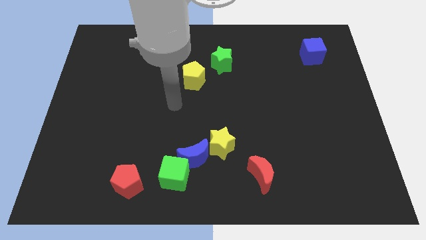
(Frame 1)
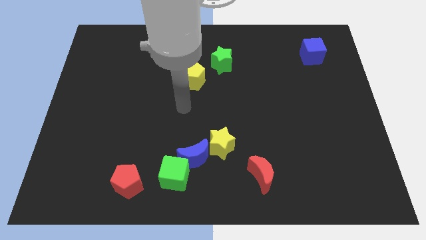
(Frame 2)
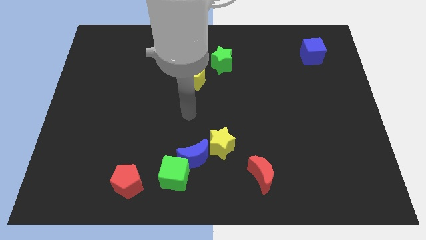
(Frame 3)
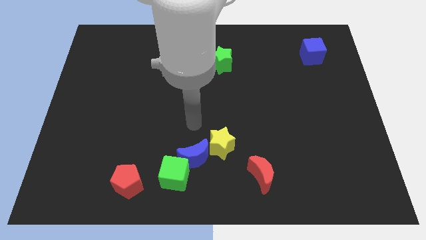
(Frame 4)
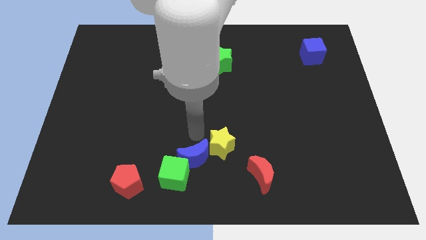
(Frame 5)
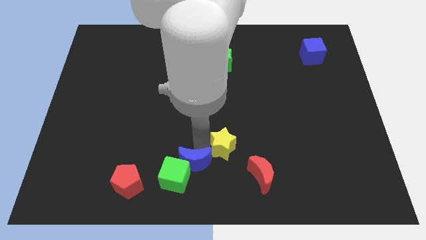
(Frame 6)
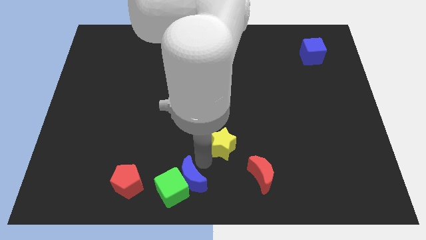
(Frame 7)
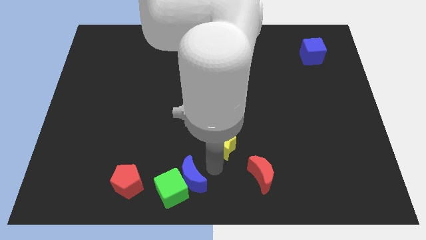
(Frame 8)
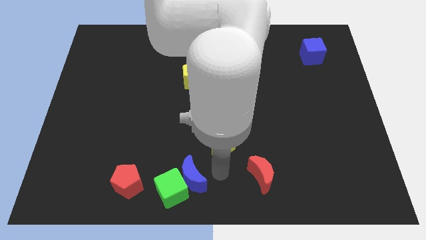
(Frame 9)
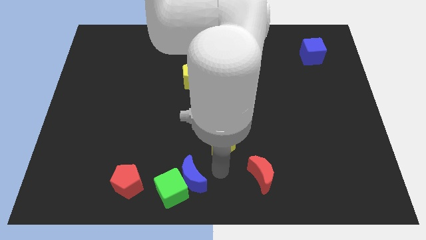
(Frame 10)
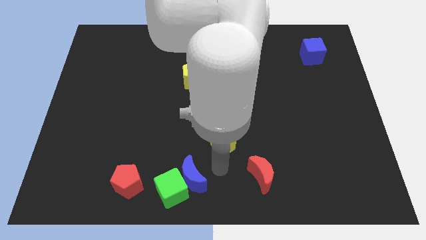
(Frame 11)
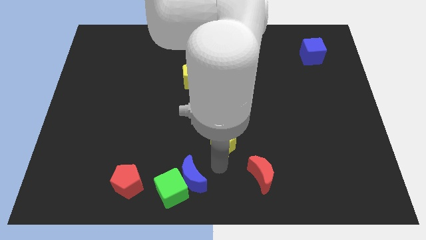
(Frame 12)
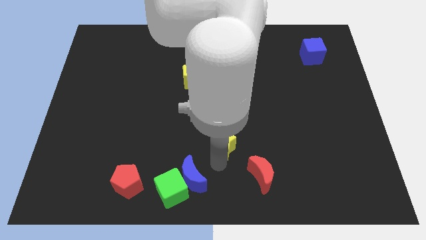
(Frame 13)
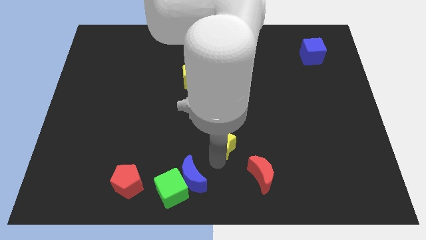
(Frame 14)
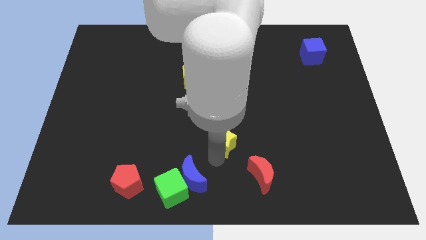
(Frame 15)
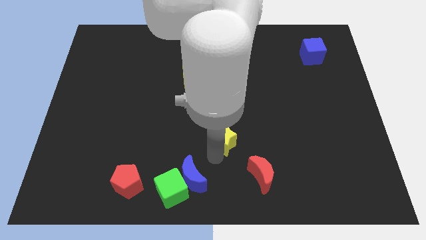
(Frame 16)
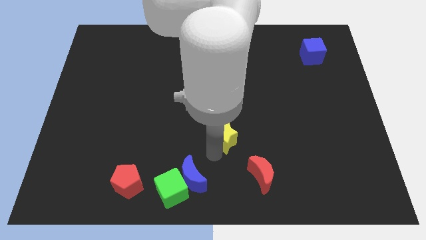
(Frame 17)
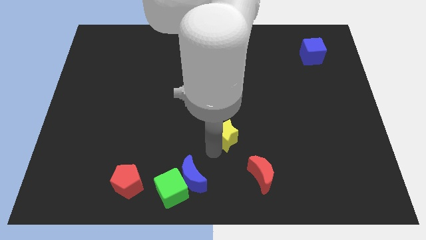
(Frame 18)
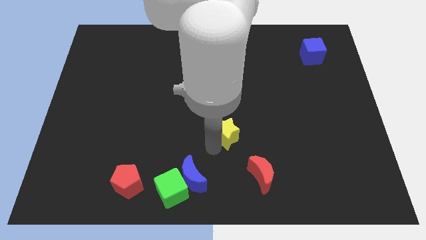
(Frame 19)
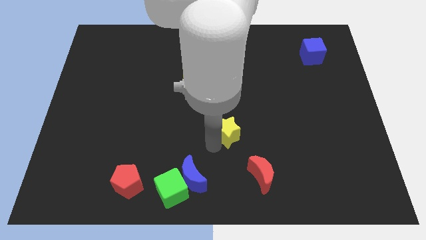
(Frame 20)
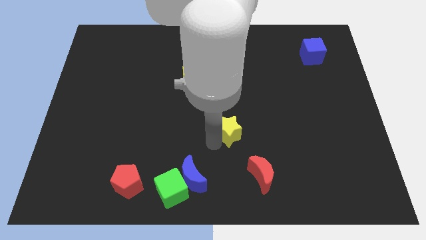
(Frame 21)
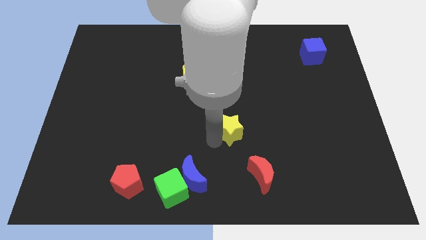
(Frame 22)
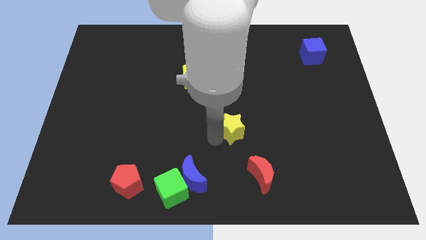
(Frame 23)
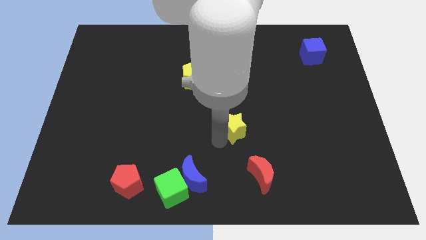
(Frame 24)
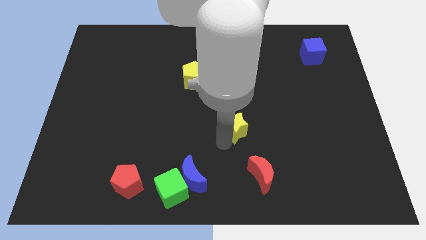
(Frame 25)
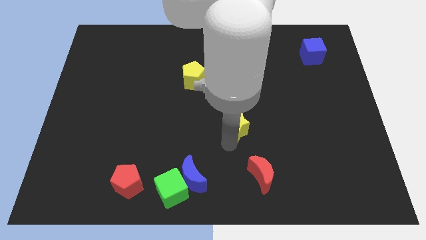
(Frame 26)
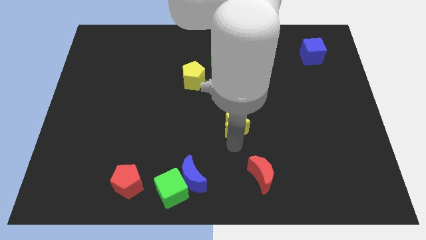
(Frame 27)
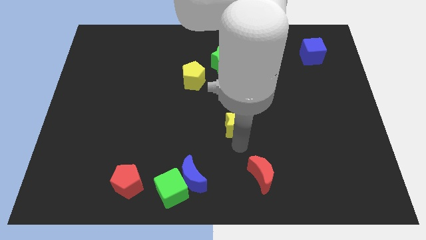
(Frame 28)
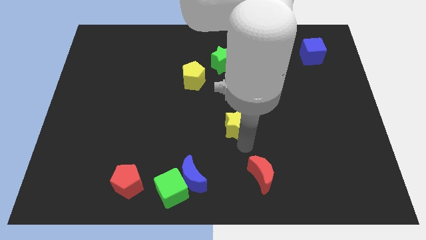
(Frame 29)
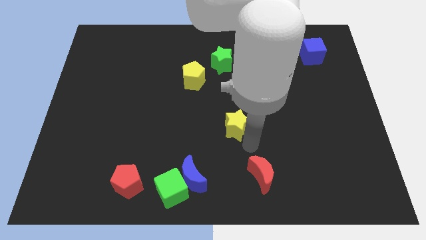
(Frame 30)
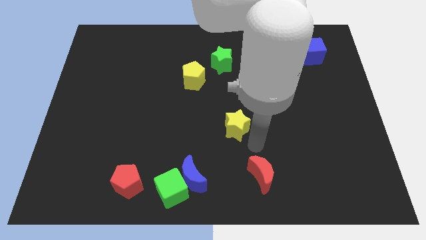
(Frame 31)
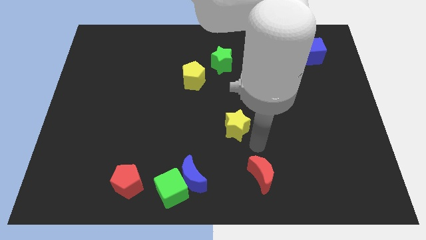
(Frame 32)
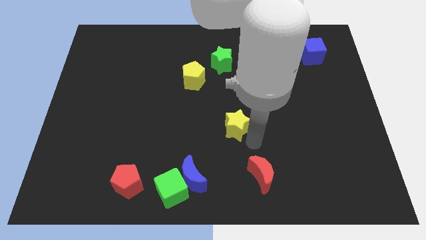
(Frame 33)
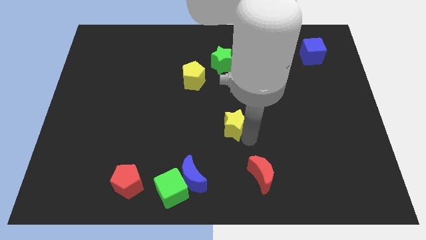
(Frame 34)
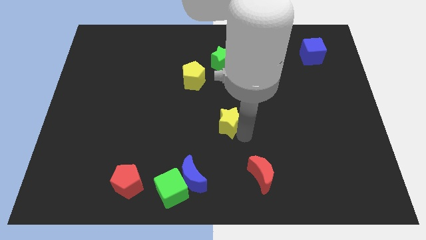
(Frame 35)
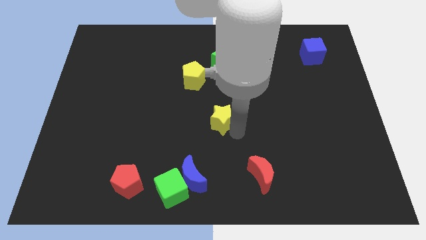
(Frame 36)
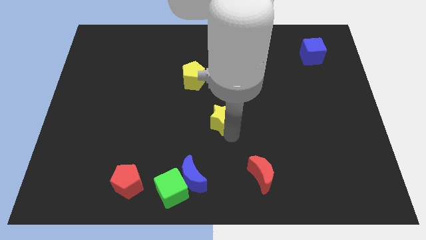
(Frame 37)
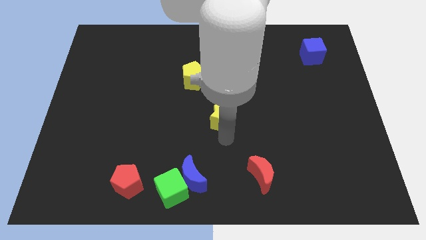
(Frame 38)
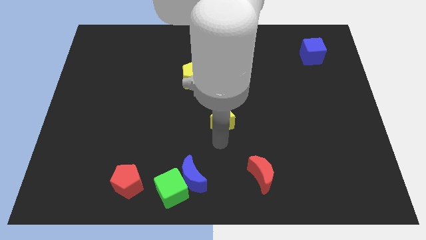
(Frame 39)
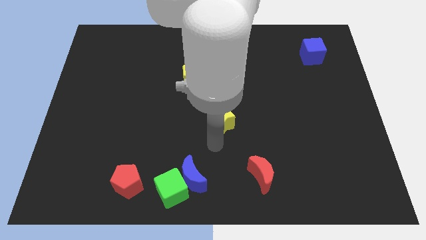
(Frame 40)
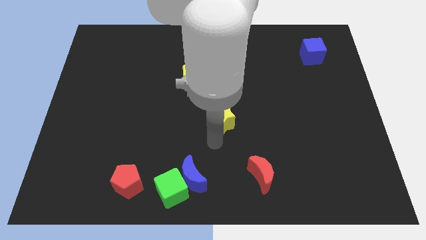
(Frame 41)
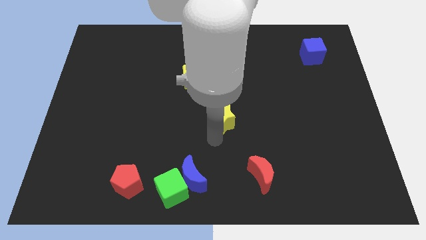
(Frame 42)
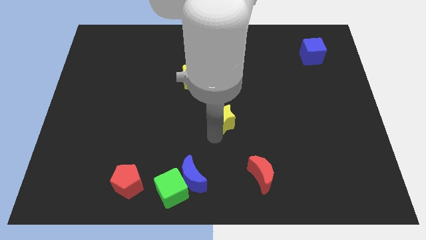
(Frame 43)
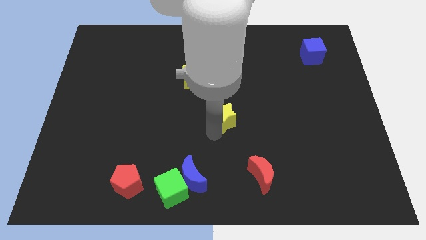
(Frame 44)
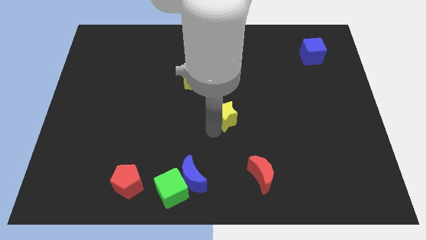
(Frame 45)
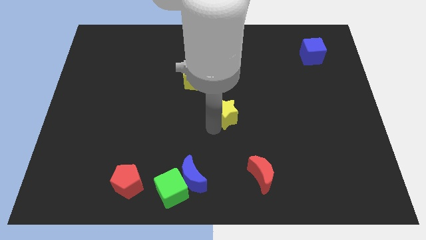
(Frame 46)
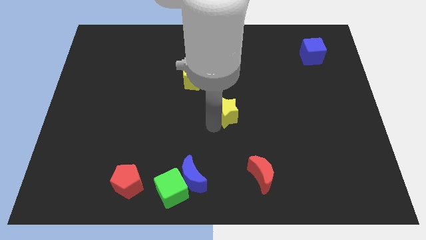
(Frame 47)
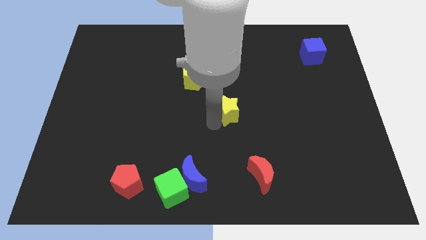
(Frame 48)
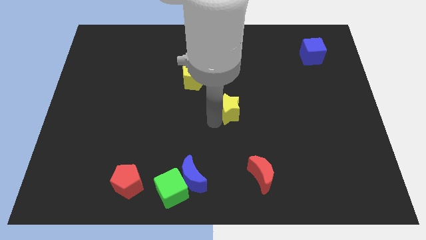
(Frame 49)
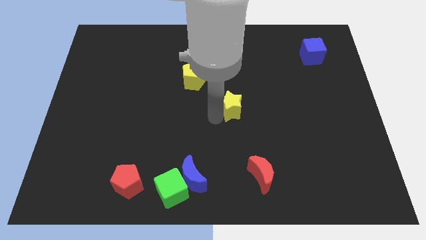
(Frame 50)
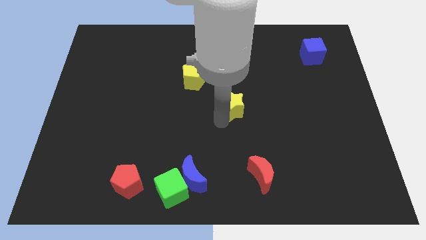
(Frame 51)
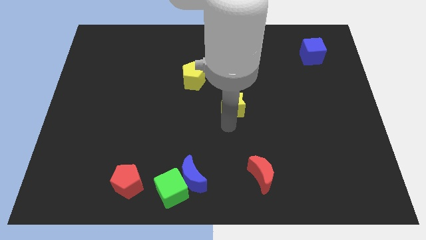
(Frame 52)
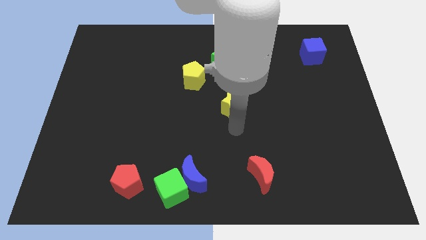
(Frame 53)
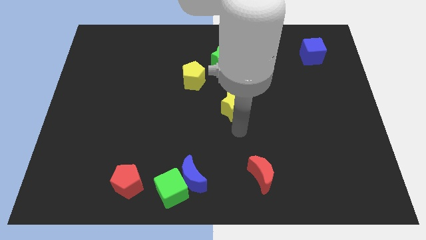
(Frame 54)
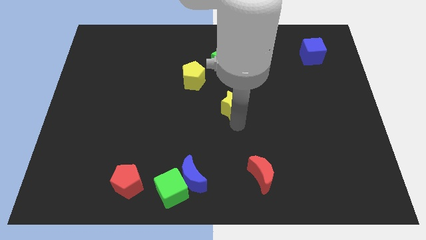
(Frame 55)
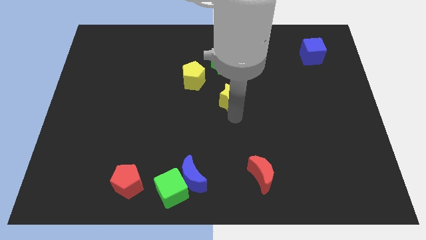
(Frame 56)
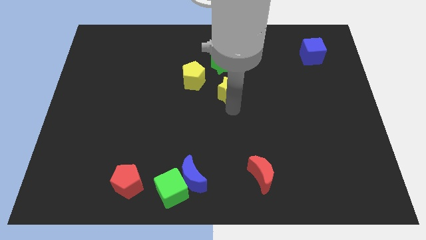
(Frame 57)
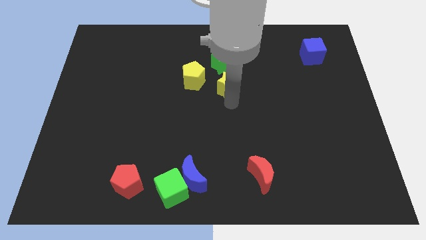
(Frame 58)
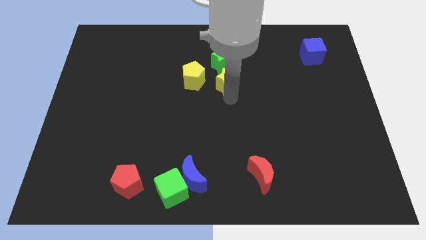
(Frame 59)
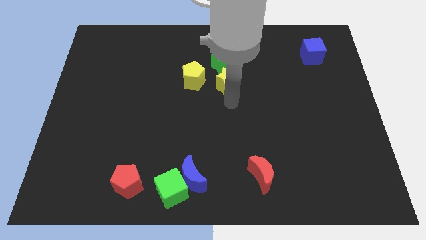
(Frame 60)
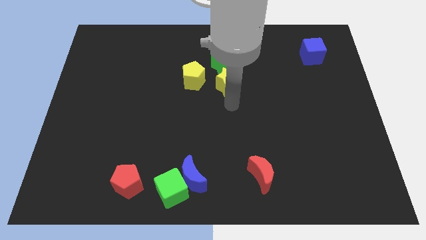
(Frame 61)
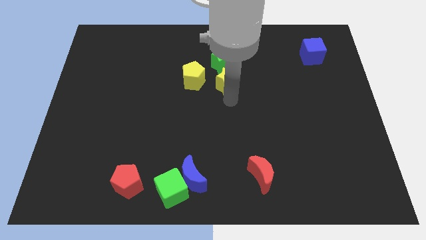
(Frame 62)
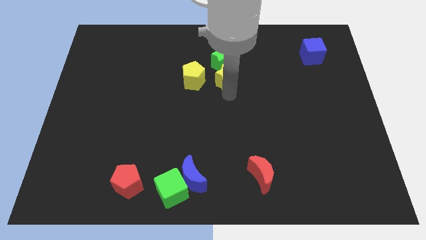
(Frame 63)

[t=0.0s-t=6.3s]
put the yellow star towards the green star

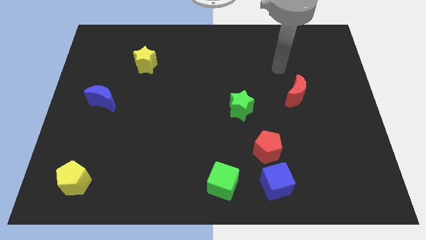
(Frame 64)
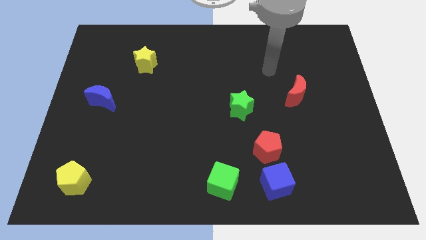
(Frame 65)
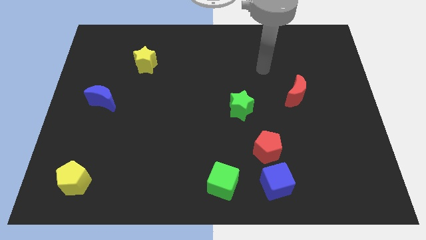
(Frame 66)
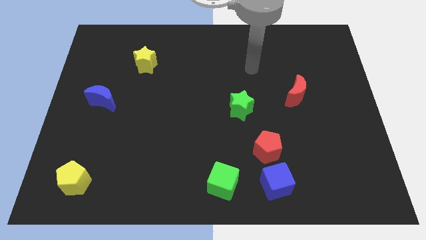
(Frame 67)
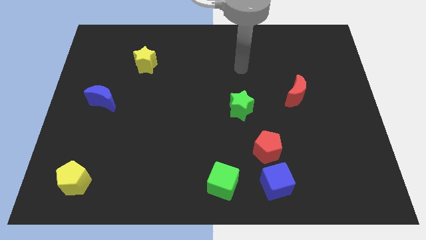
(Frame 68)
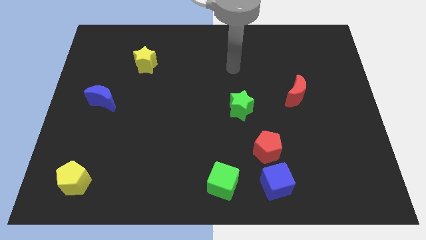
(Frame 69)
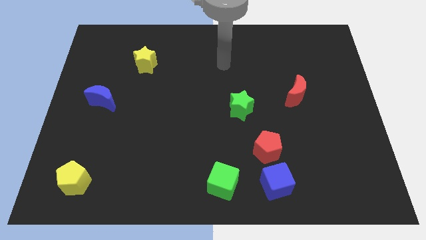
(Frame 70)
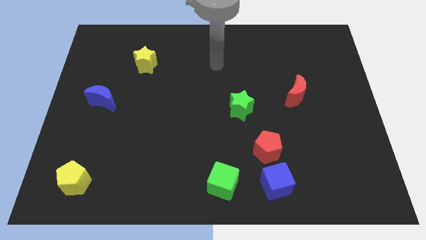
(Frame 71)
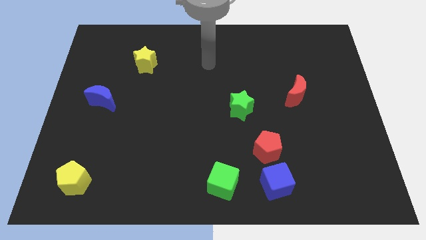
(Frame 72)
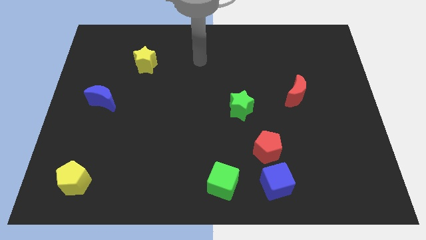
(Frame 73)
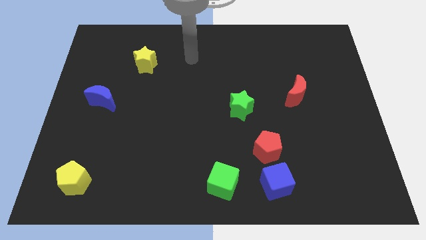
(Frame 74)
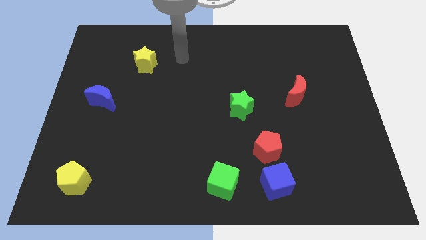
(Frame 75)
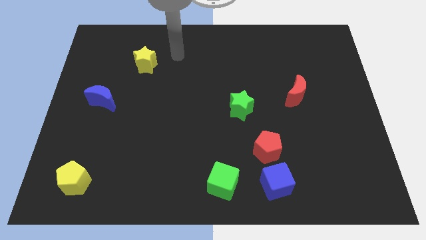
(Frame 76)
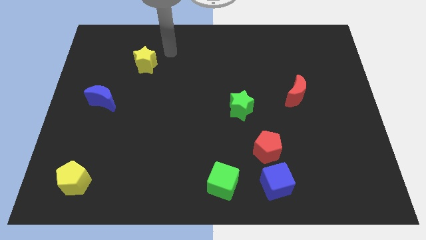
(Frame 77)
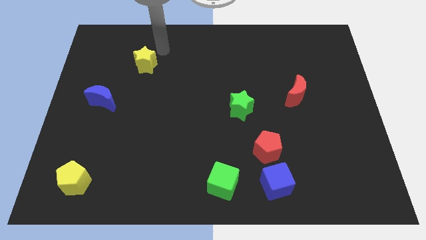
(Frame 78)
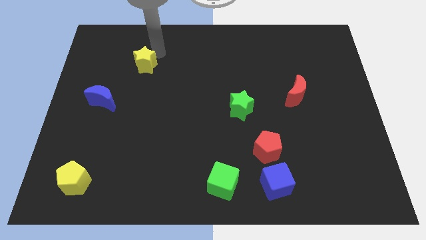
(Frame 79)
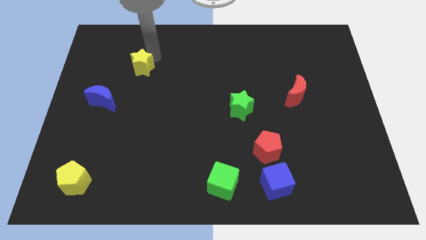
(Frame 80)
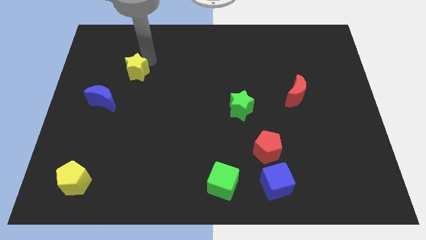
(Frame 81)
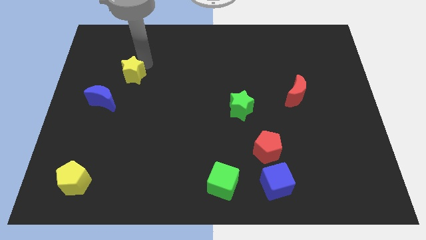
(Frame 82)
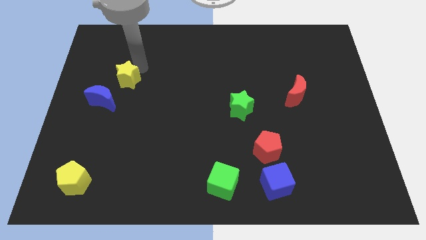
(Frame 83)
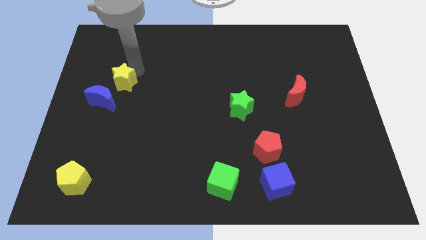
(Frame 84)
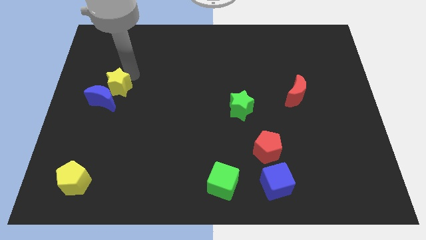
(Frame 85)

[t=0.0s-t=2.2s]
push the yellow star to the blue moon
